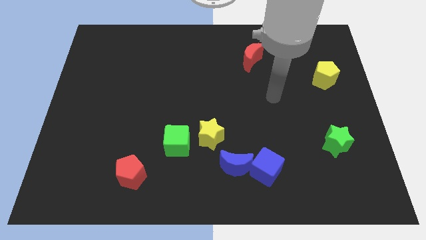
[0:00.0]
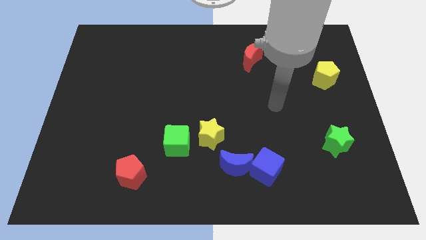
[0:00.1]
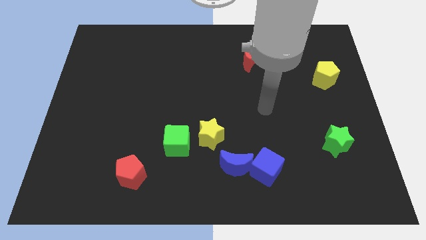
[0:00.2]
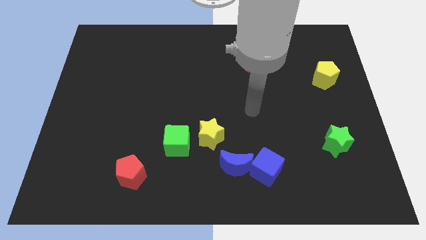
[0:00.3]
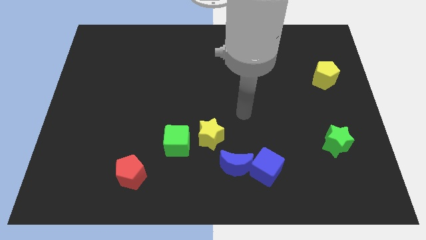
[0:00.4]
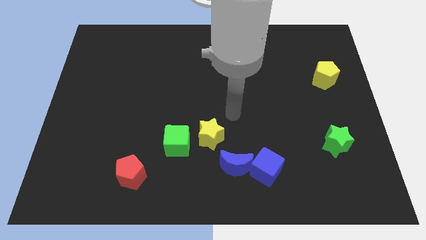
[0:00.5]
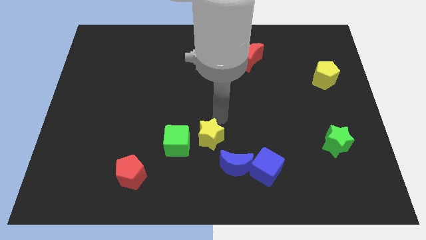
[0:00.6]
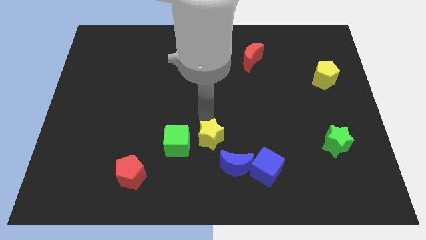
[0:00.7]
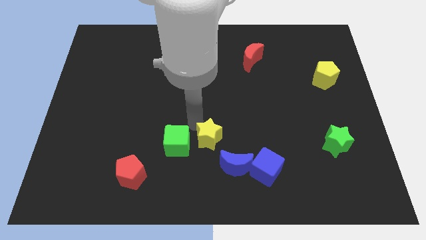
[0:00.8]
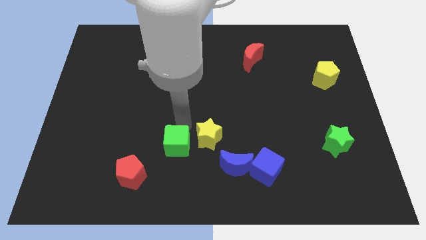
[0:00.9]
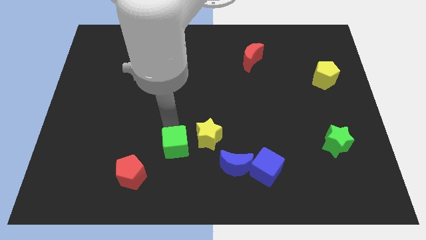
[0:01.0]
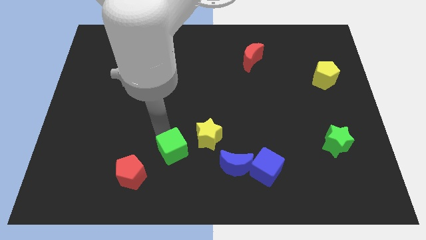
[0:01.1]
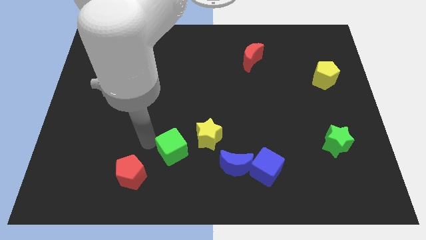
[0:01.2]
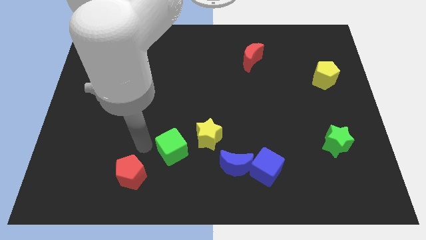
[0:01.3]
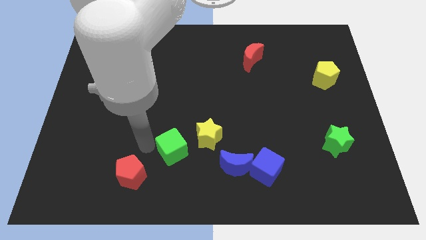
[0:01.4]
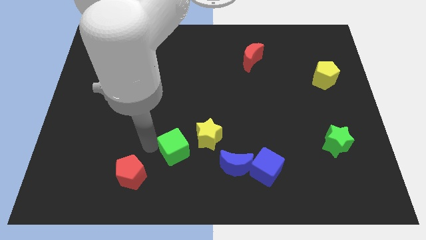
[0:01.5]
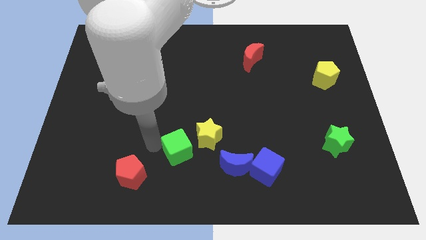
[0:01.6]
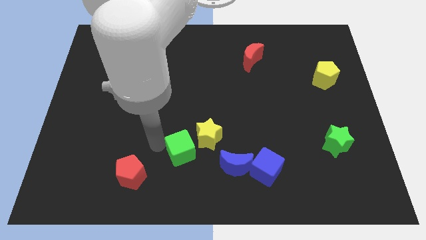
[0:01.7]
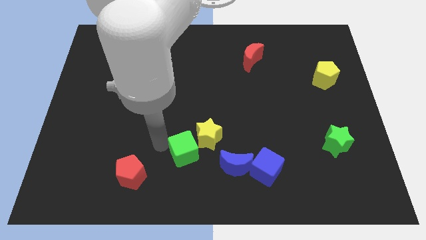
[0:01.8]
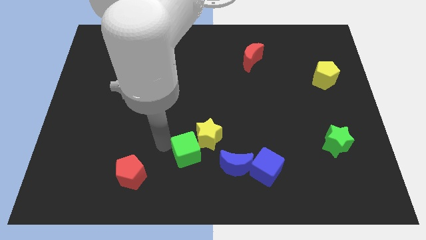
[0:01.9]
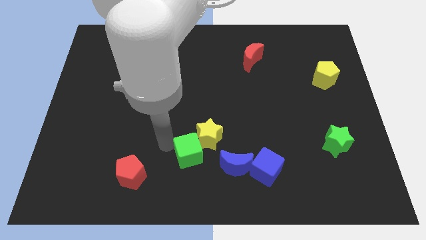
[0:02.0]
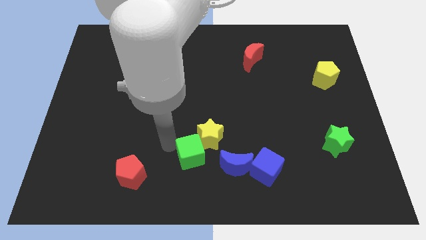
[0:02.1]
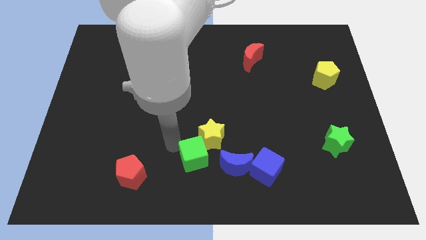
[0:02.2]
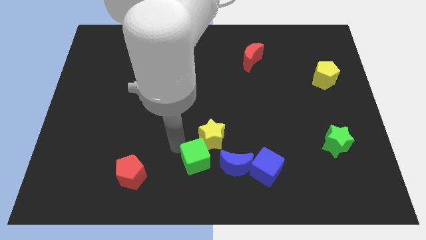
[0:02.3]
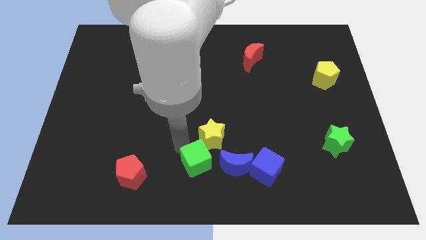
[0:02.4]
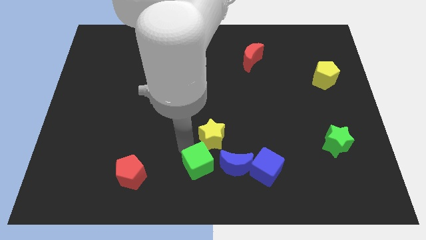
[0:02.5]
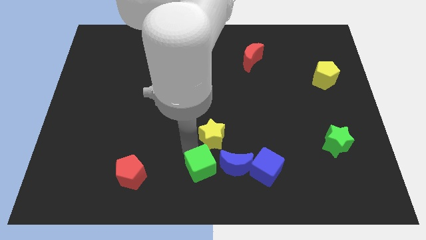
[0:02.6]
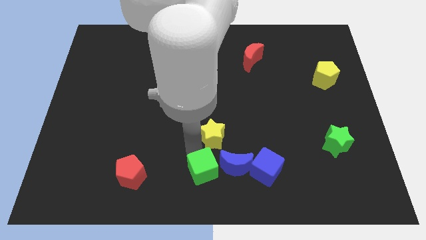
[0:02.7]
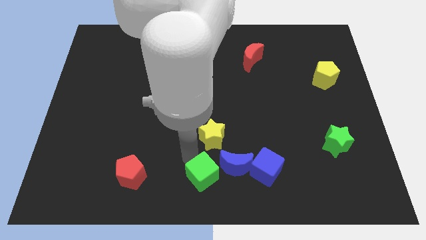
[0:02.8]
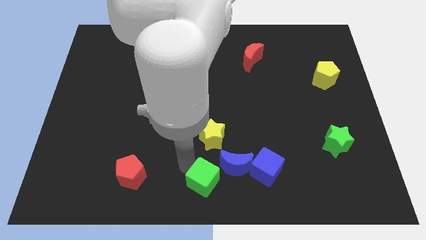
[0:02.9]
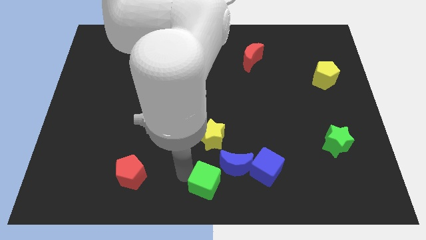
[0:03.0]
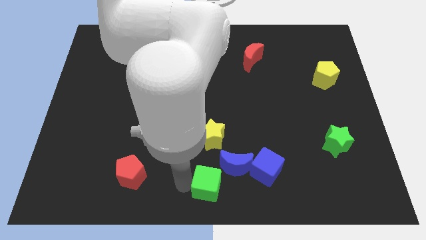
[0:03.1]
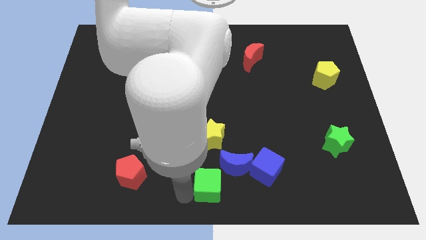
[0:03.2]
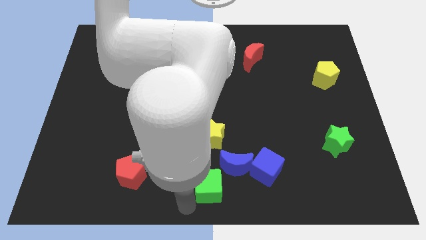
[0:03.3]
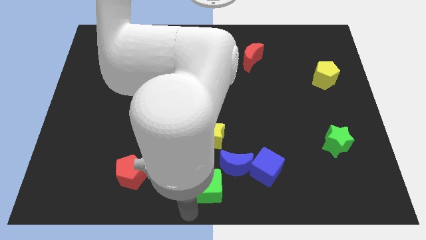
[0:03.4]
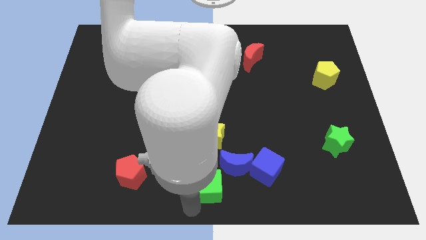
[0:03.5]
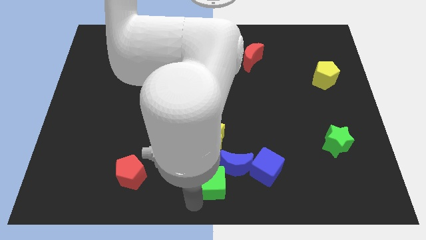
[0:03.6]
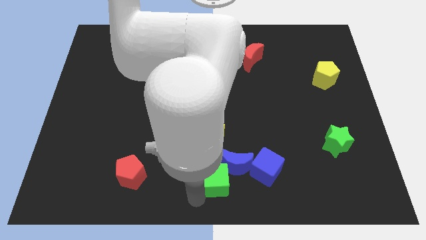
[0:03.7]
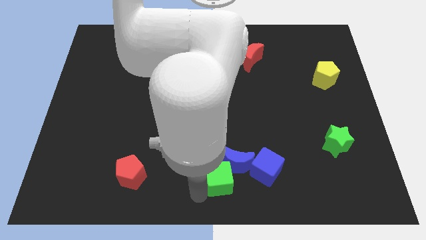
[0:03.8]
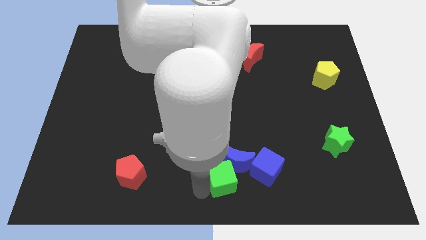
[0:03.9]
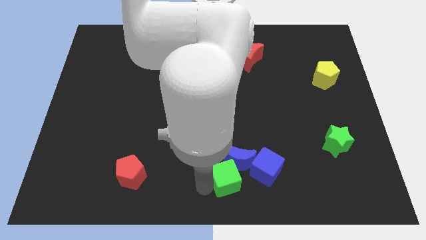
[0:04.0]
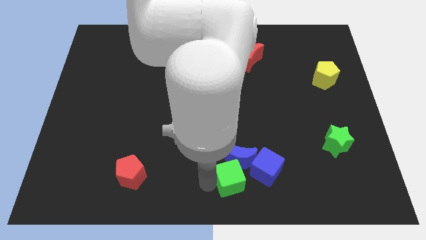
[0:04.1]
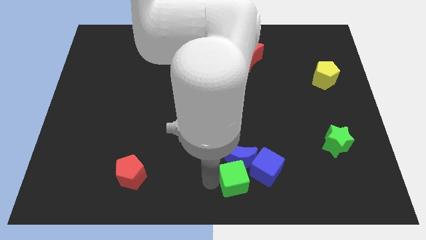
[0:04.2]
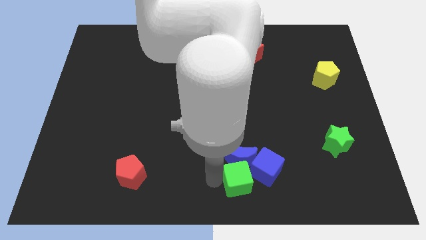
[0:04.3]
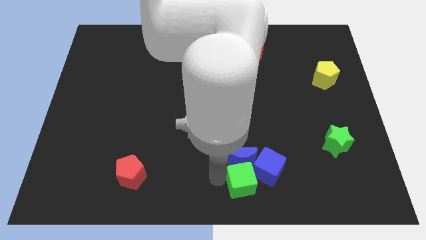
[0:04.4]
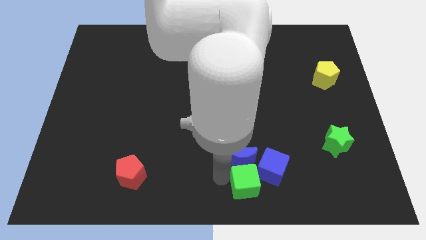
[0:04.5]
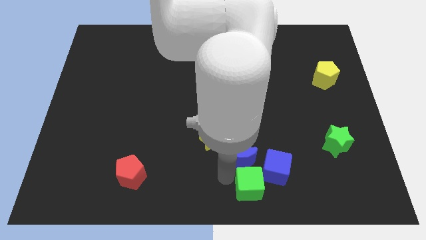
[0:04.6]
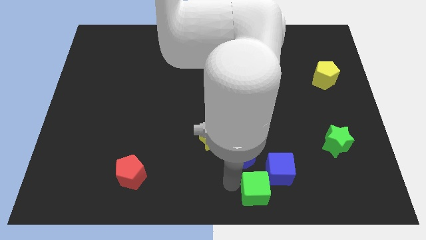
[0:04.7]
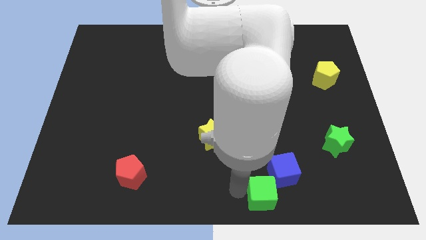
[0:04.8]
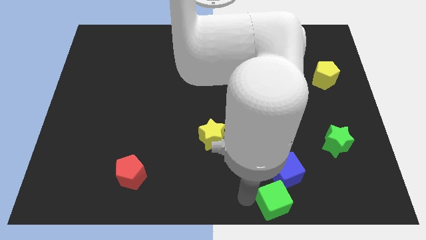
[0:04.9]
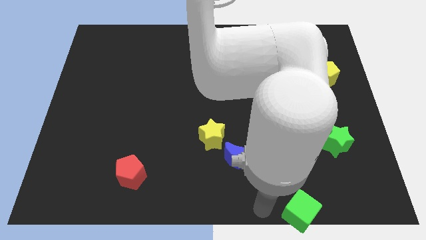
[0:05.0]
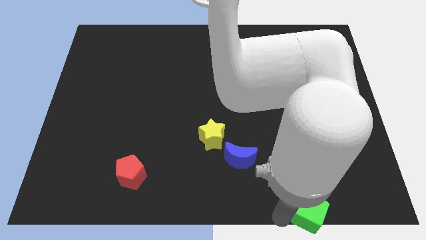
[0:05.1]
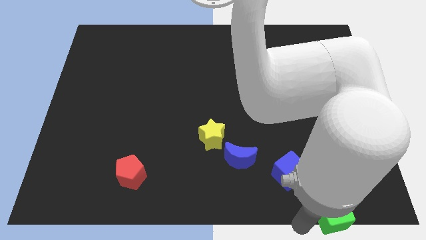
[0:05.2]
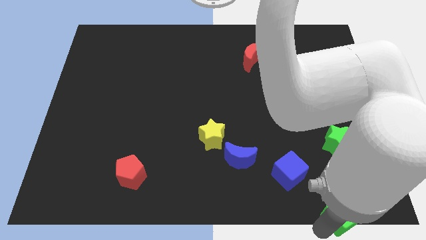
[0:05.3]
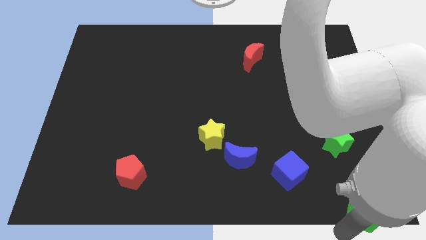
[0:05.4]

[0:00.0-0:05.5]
slide the green cube to the bottom right corner
